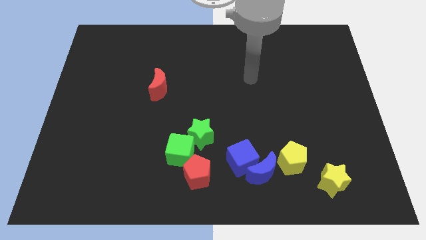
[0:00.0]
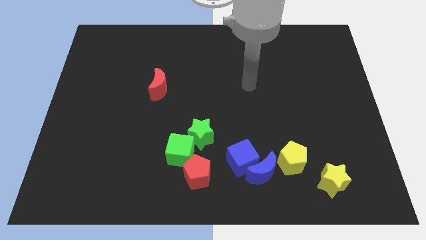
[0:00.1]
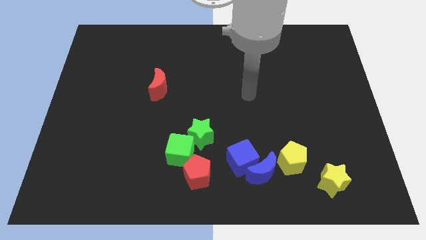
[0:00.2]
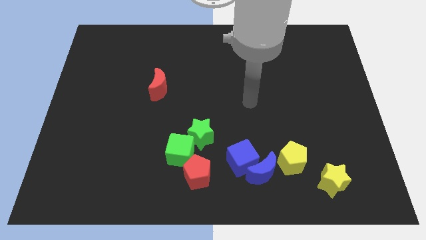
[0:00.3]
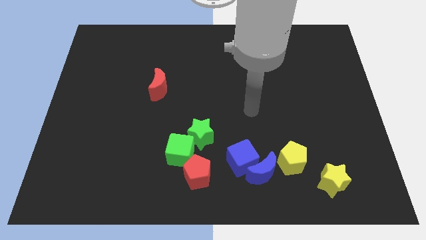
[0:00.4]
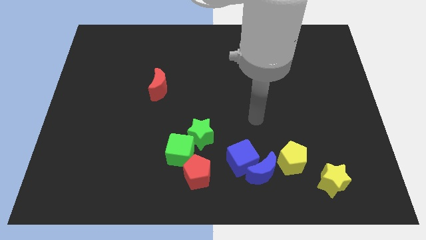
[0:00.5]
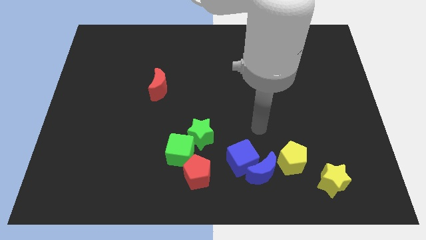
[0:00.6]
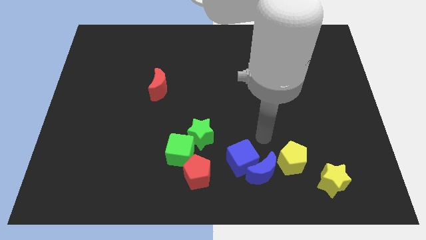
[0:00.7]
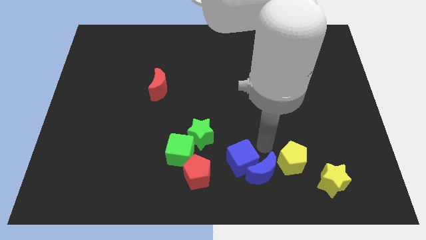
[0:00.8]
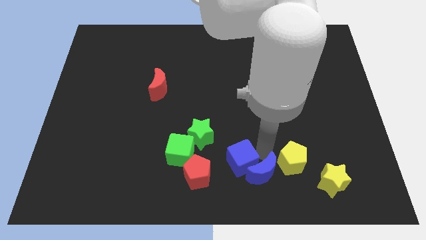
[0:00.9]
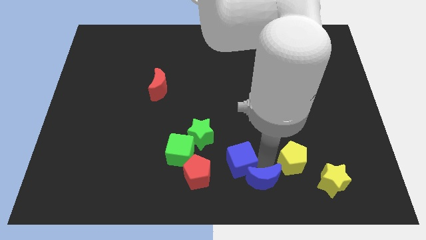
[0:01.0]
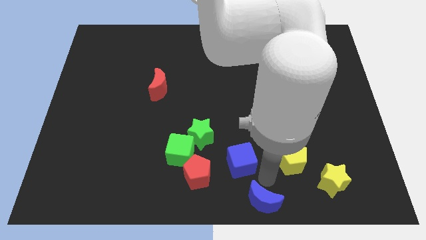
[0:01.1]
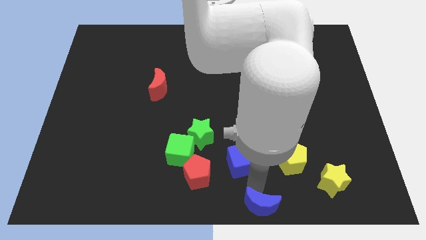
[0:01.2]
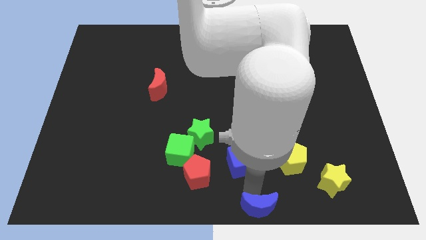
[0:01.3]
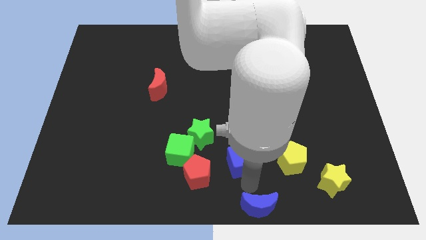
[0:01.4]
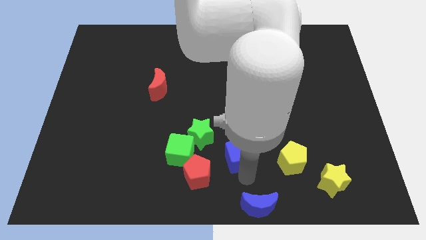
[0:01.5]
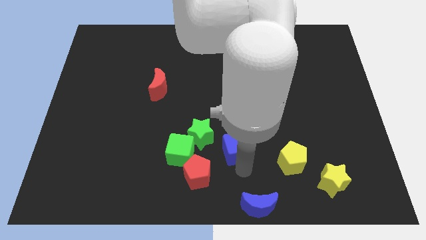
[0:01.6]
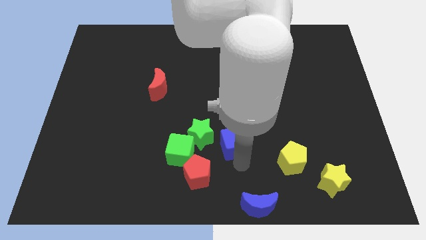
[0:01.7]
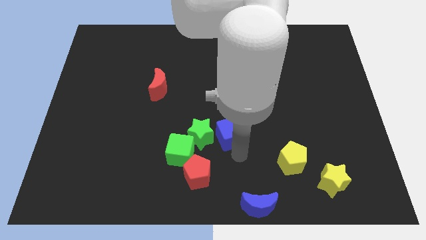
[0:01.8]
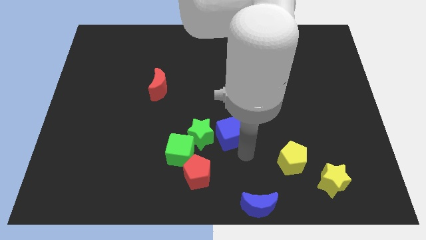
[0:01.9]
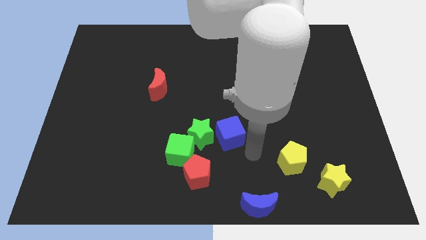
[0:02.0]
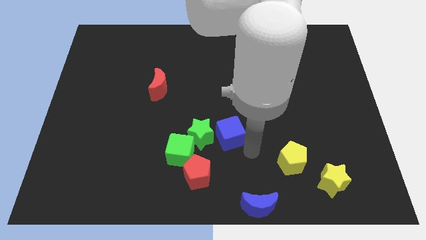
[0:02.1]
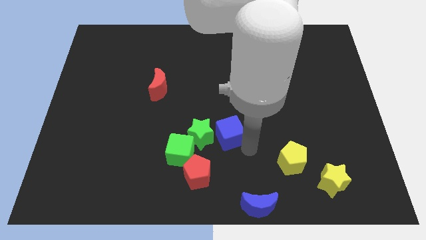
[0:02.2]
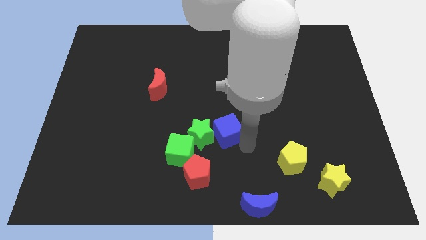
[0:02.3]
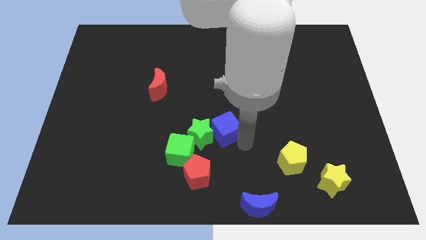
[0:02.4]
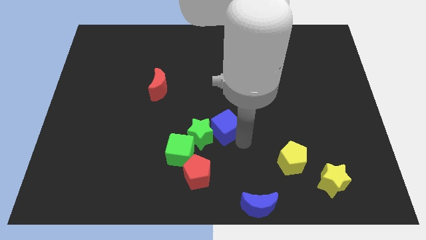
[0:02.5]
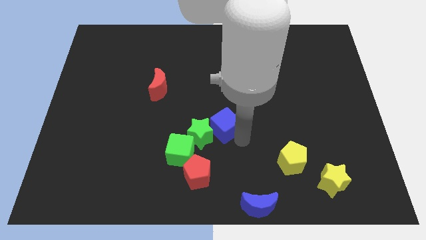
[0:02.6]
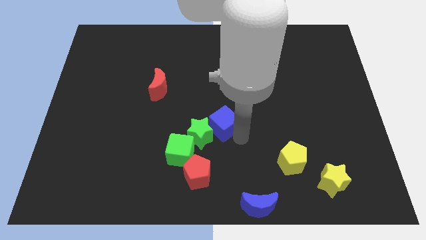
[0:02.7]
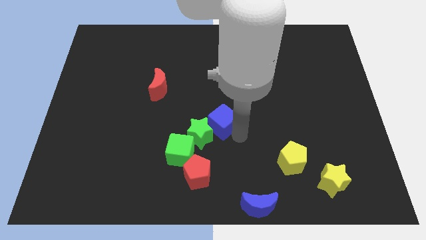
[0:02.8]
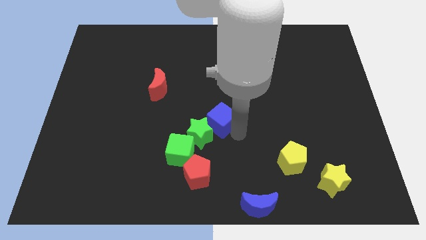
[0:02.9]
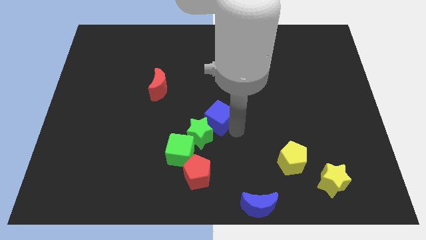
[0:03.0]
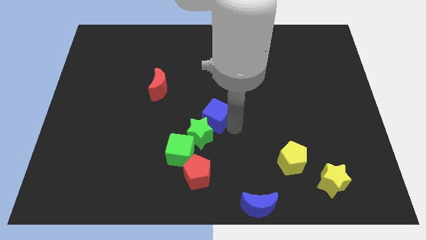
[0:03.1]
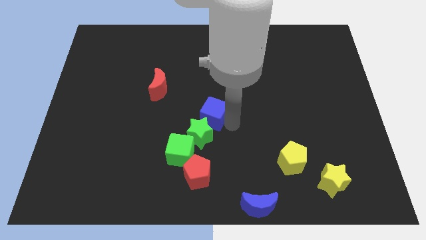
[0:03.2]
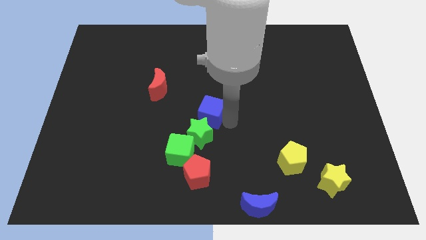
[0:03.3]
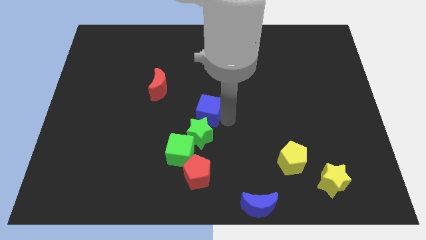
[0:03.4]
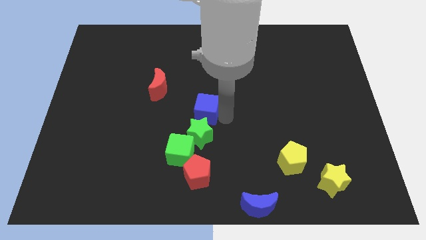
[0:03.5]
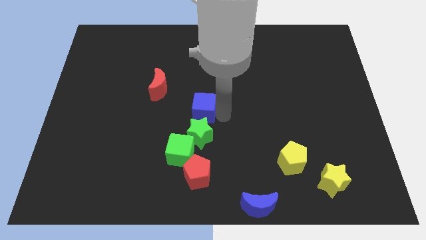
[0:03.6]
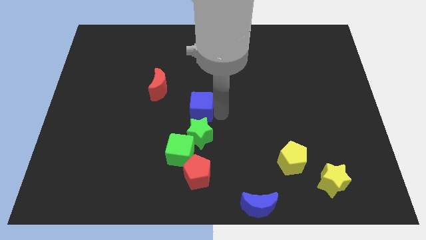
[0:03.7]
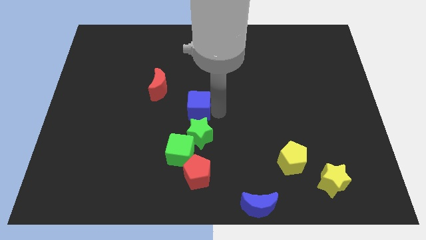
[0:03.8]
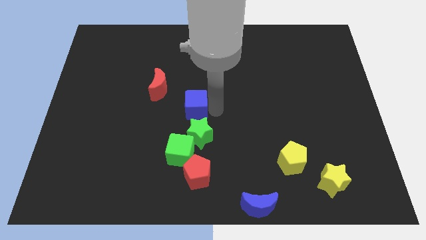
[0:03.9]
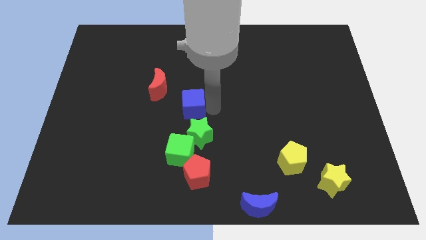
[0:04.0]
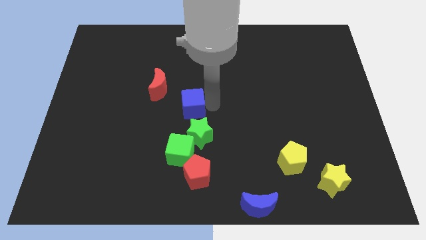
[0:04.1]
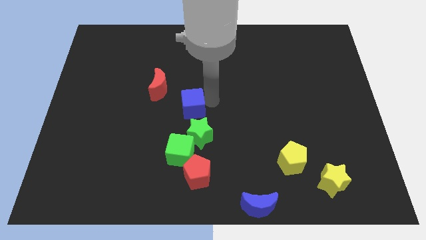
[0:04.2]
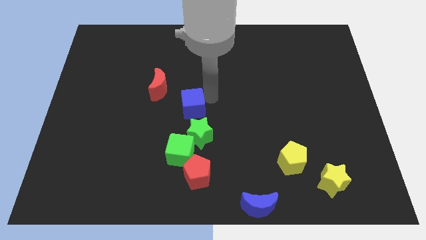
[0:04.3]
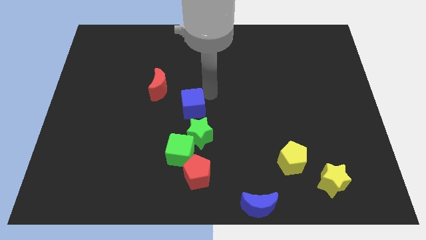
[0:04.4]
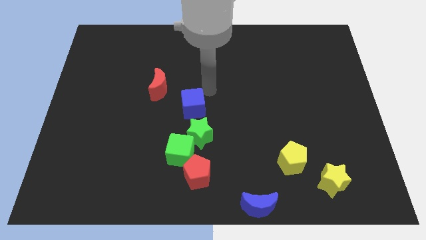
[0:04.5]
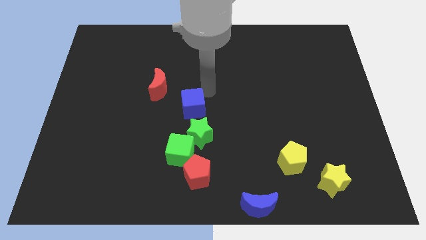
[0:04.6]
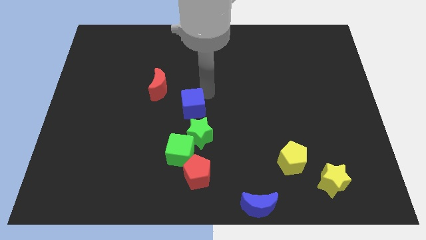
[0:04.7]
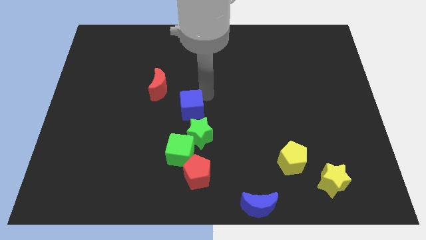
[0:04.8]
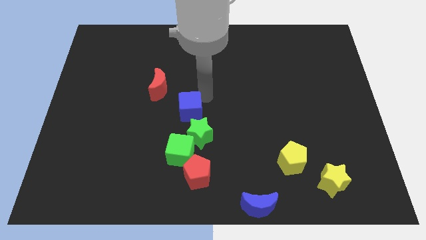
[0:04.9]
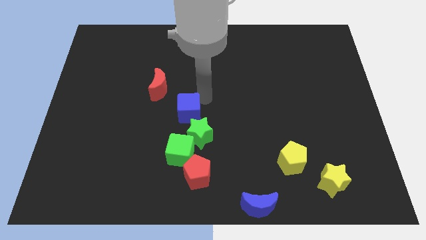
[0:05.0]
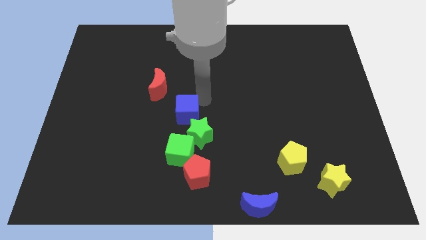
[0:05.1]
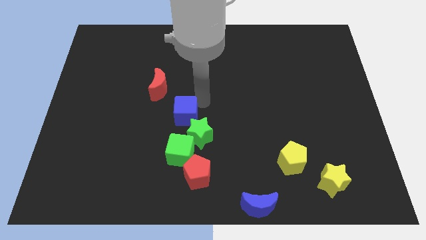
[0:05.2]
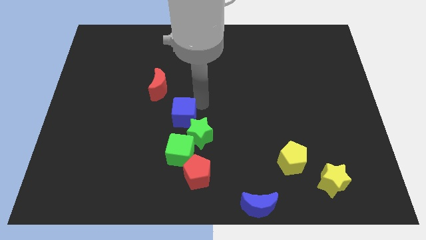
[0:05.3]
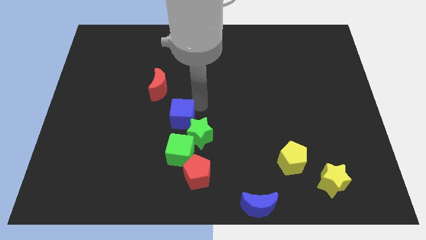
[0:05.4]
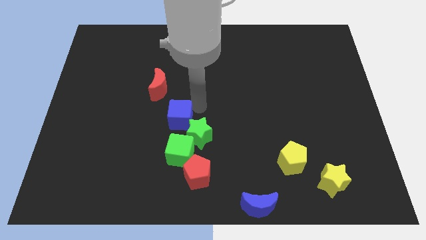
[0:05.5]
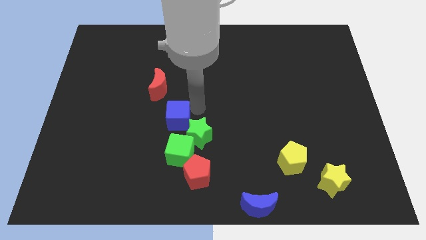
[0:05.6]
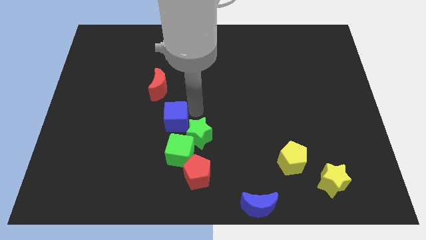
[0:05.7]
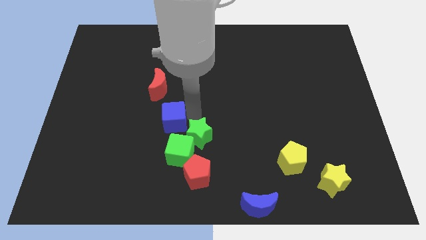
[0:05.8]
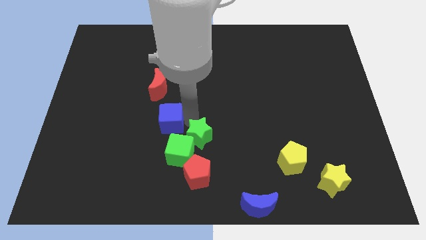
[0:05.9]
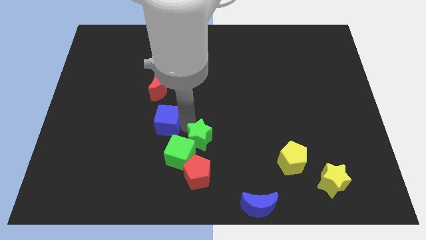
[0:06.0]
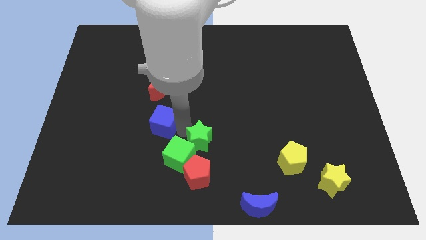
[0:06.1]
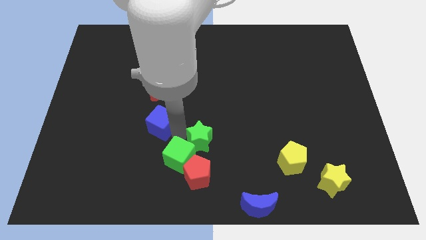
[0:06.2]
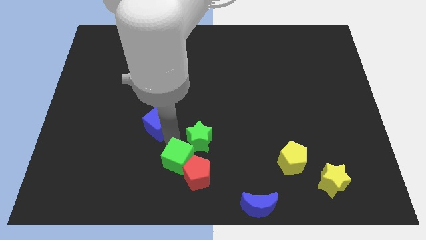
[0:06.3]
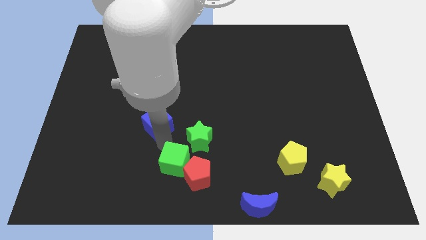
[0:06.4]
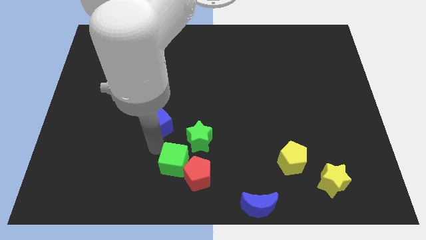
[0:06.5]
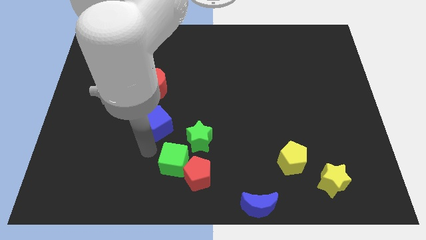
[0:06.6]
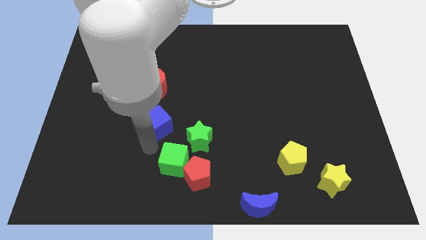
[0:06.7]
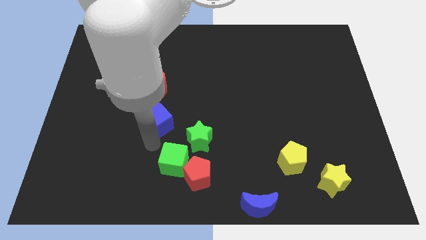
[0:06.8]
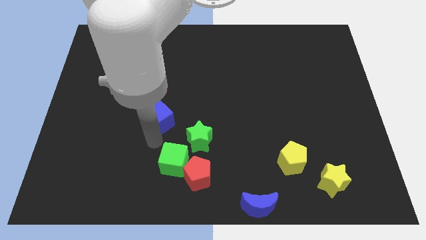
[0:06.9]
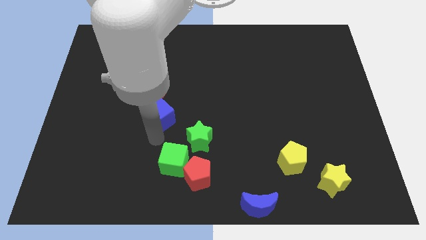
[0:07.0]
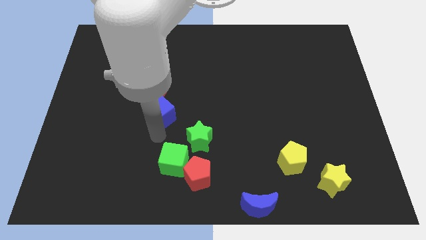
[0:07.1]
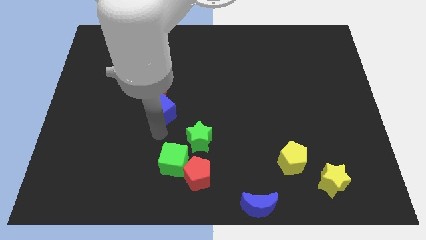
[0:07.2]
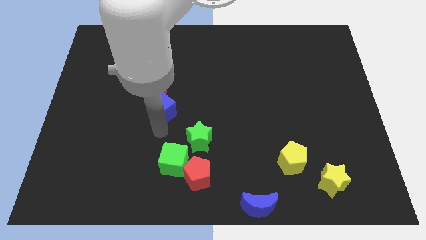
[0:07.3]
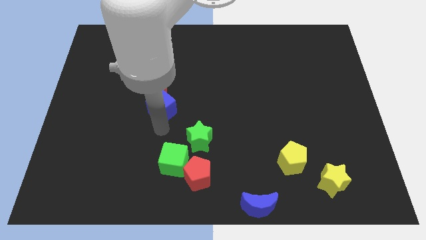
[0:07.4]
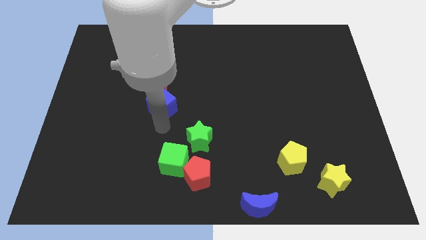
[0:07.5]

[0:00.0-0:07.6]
put the blue cube close to the red moon
